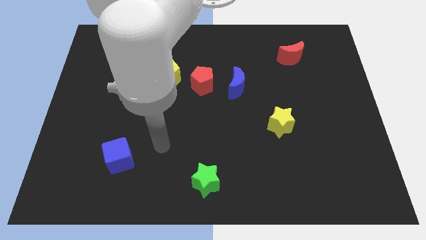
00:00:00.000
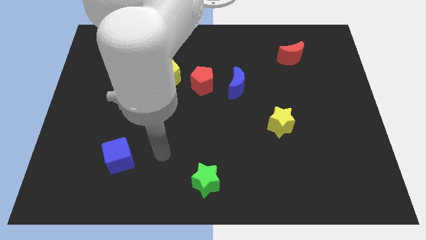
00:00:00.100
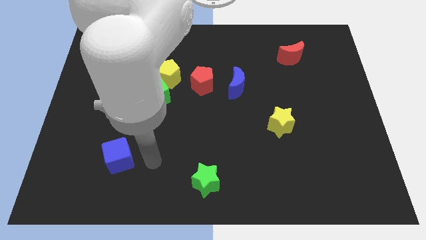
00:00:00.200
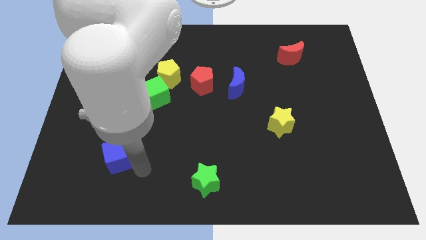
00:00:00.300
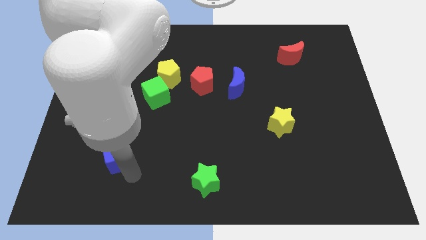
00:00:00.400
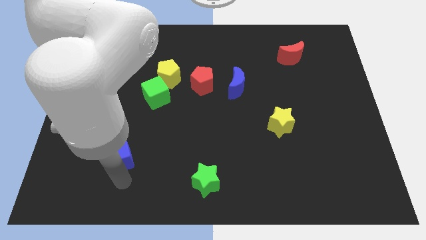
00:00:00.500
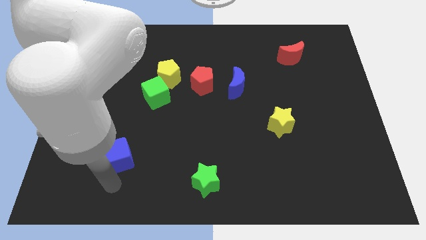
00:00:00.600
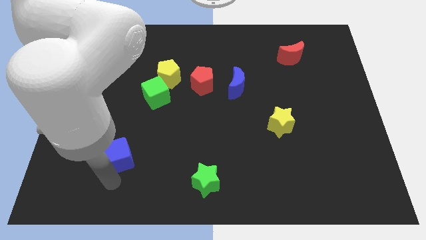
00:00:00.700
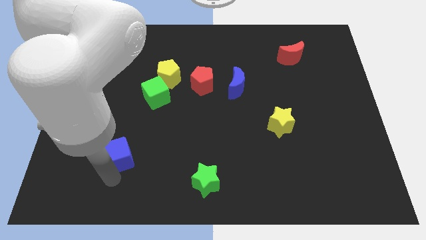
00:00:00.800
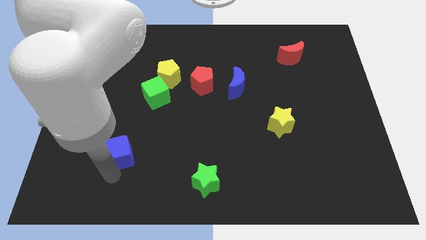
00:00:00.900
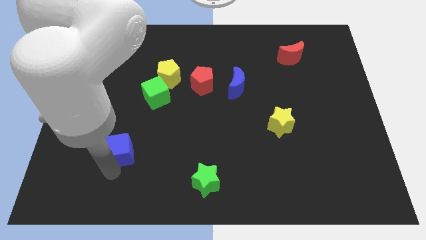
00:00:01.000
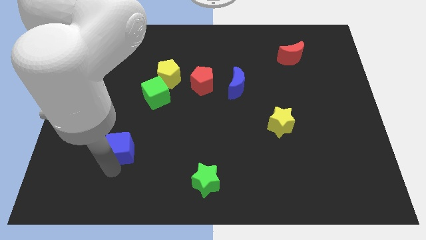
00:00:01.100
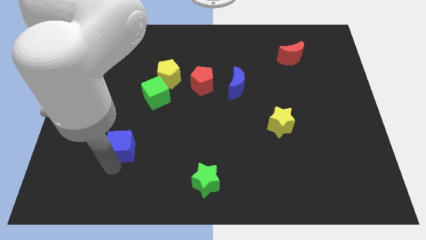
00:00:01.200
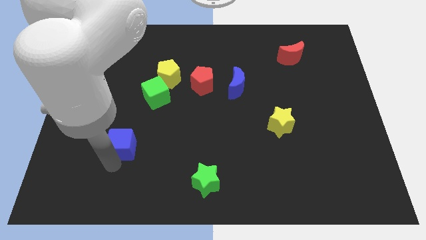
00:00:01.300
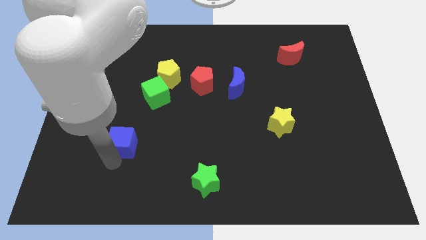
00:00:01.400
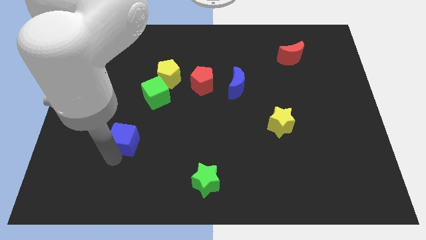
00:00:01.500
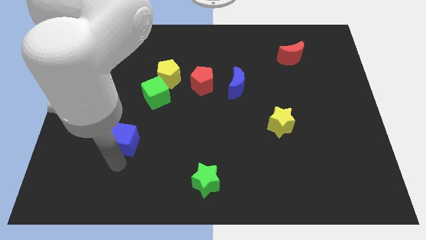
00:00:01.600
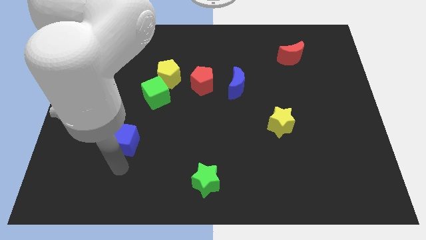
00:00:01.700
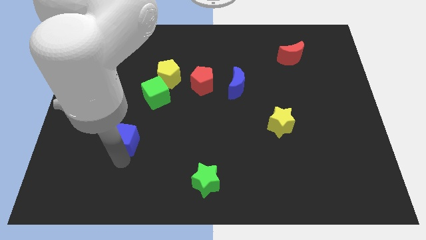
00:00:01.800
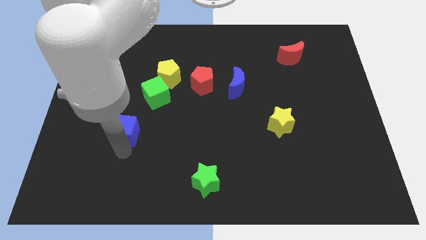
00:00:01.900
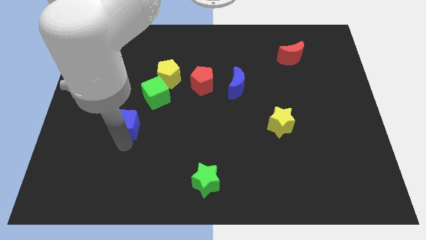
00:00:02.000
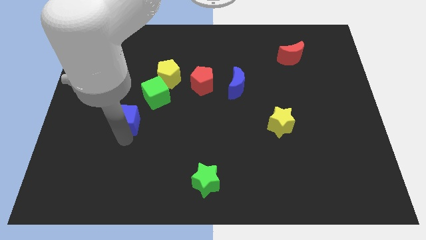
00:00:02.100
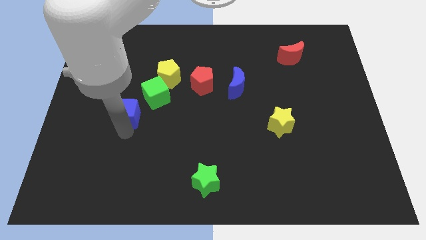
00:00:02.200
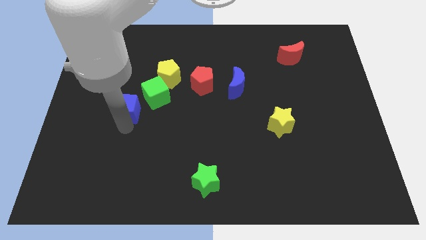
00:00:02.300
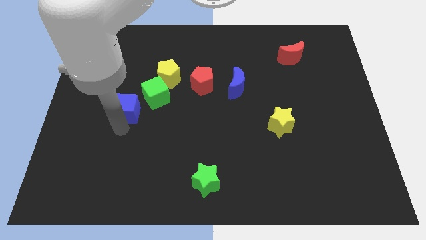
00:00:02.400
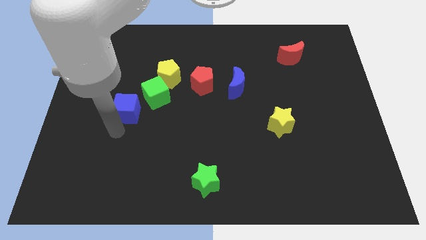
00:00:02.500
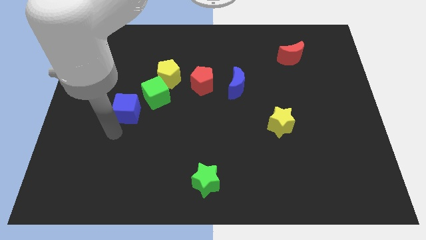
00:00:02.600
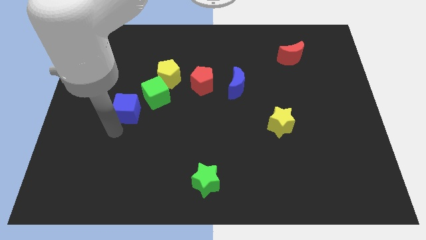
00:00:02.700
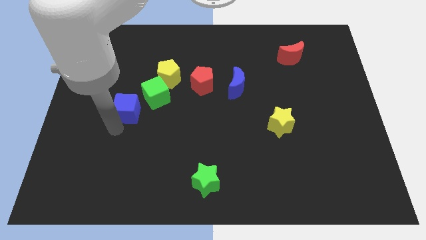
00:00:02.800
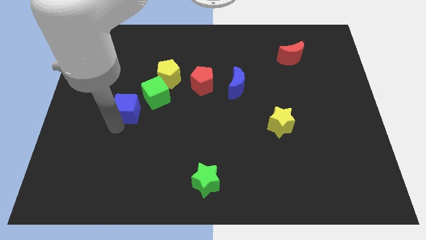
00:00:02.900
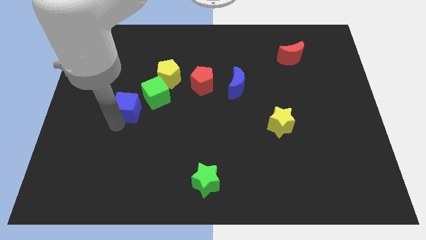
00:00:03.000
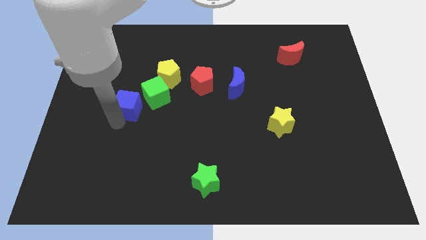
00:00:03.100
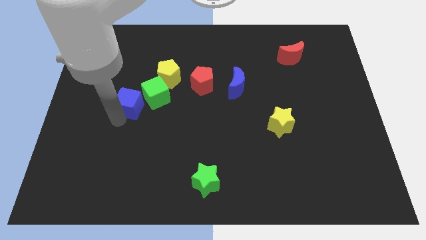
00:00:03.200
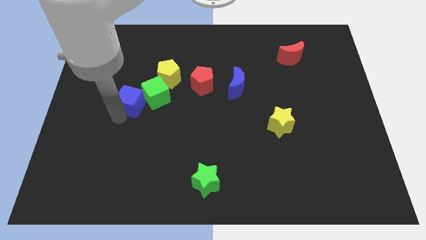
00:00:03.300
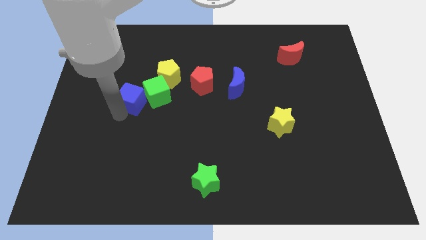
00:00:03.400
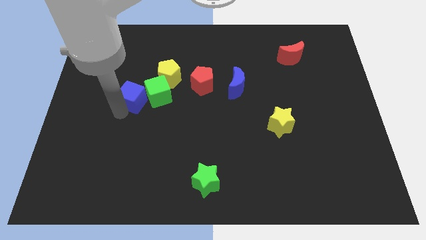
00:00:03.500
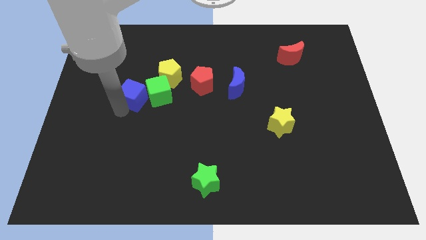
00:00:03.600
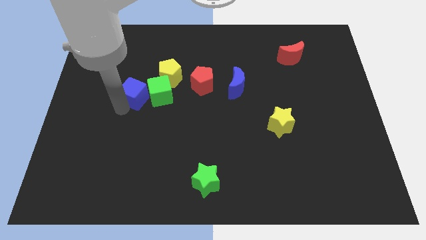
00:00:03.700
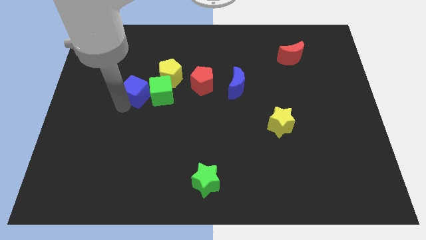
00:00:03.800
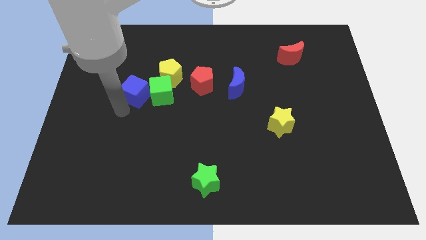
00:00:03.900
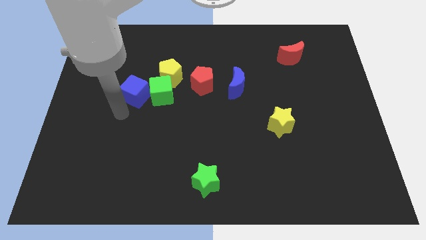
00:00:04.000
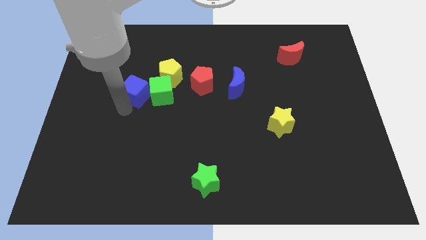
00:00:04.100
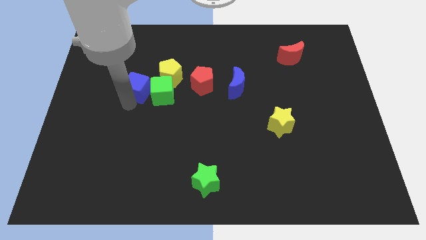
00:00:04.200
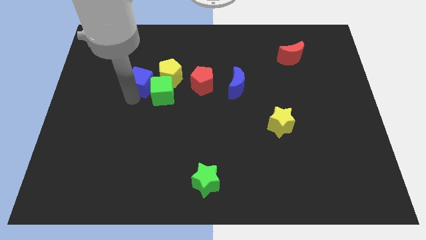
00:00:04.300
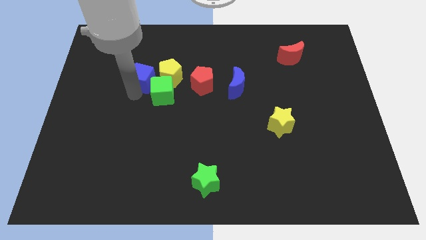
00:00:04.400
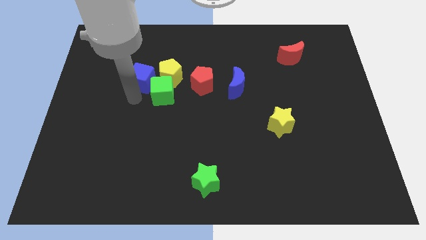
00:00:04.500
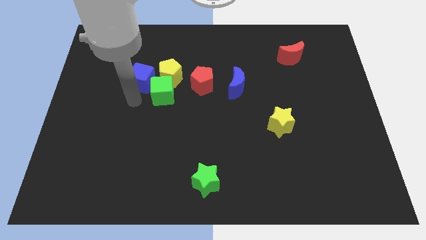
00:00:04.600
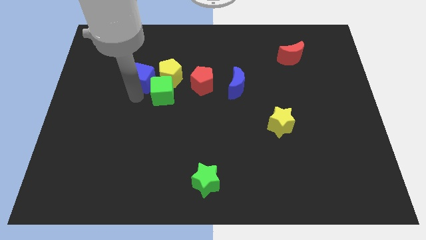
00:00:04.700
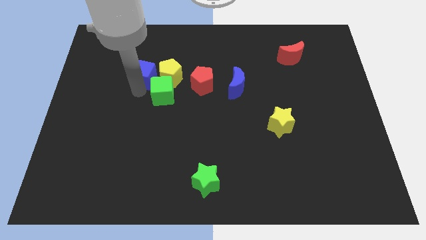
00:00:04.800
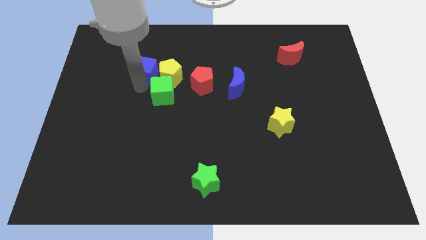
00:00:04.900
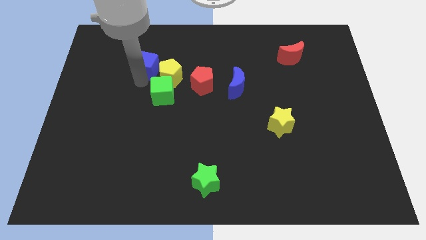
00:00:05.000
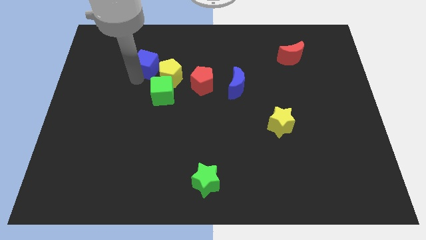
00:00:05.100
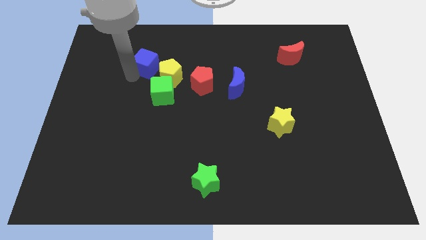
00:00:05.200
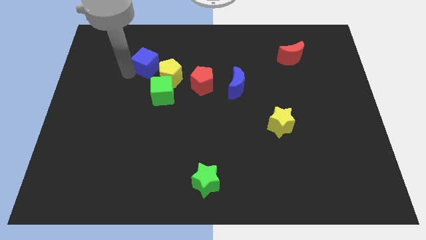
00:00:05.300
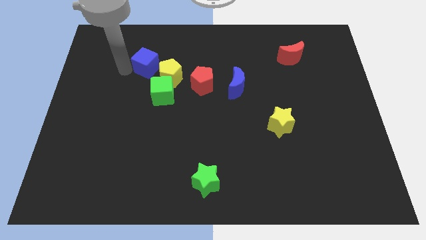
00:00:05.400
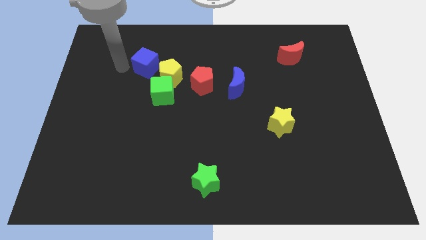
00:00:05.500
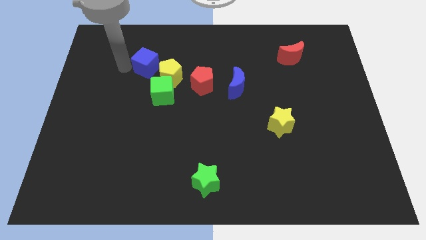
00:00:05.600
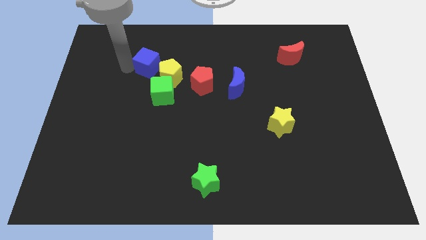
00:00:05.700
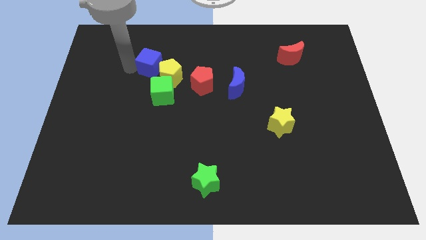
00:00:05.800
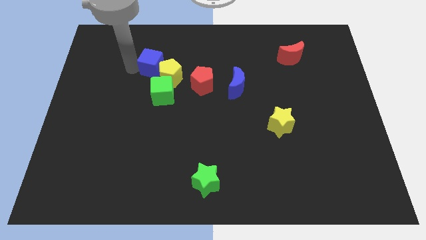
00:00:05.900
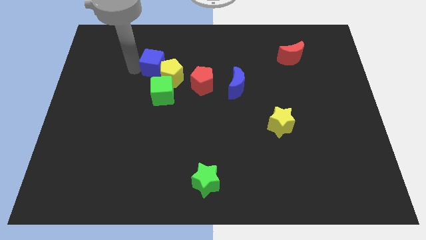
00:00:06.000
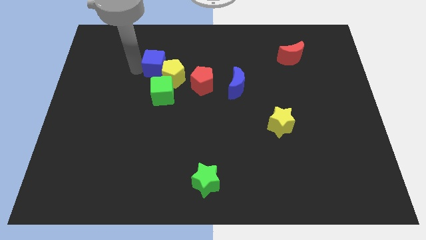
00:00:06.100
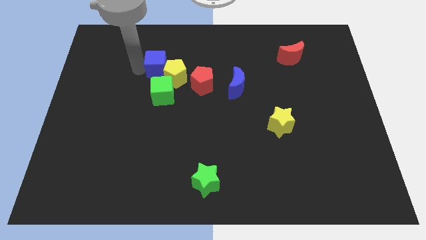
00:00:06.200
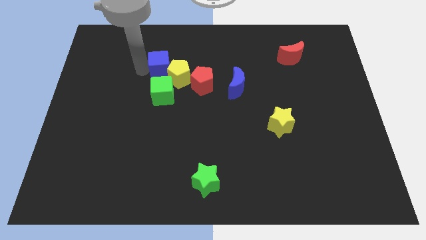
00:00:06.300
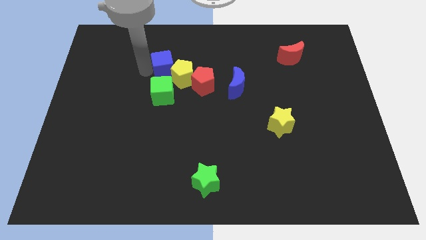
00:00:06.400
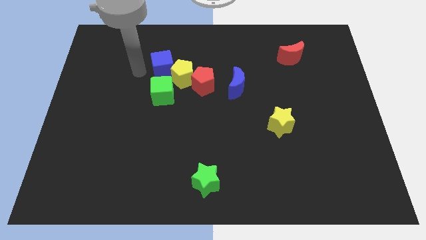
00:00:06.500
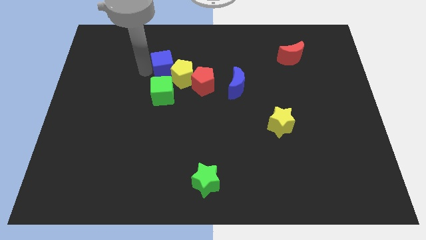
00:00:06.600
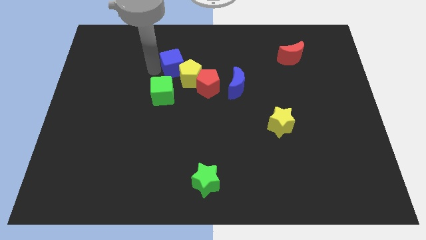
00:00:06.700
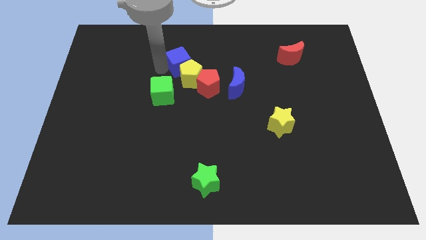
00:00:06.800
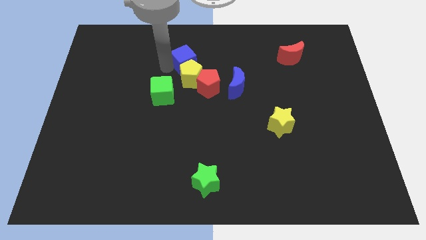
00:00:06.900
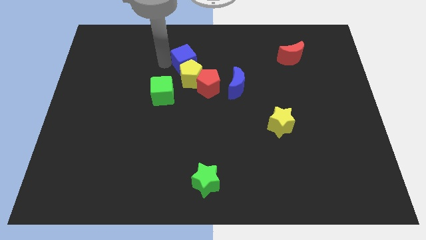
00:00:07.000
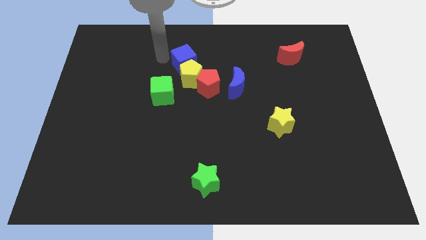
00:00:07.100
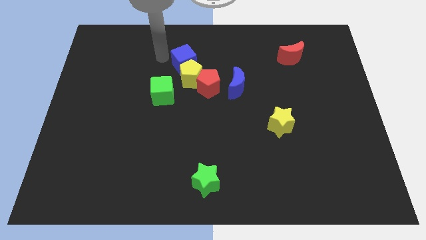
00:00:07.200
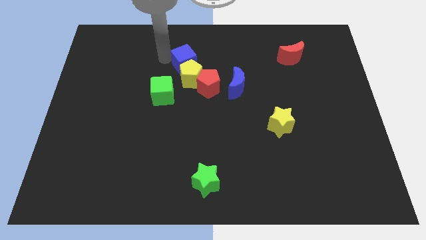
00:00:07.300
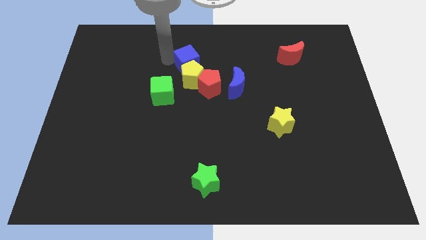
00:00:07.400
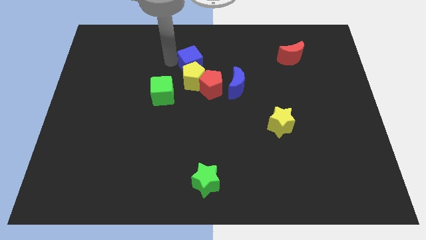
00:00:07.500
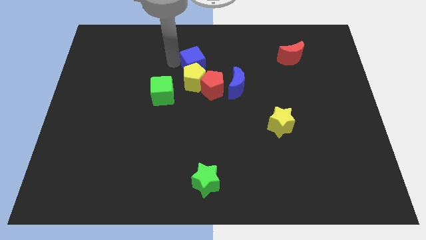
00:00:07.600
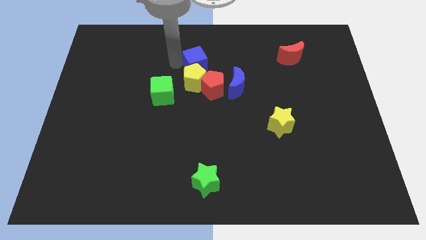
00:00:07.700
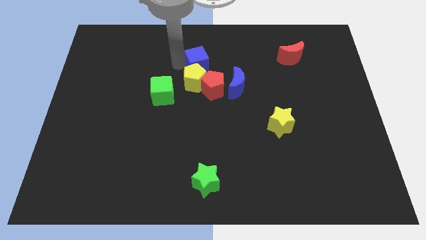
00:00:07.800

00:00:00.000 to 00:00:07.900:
slide the blue cube diagonally up and to the left of the blue moon
